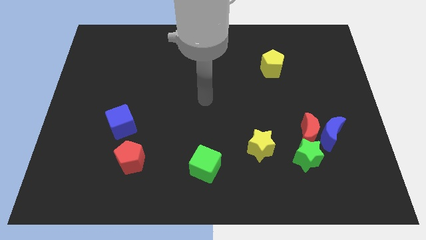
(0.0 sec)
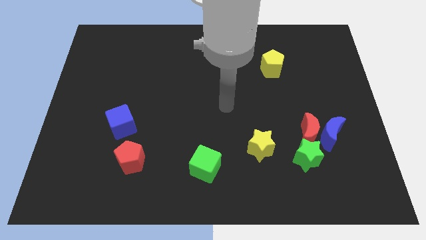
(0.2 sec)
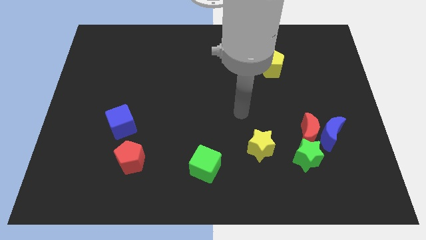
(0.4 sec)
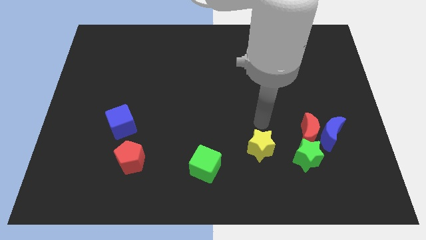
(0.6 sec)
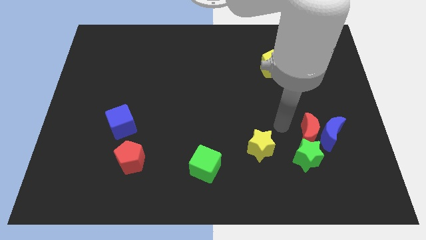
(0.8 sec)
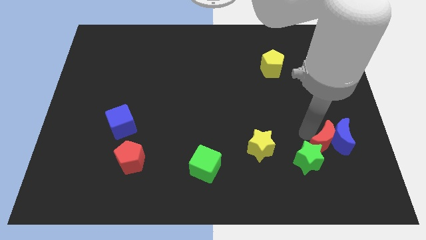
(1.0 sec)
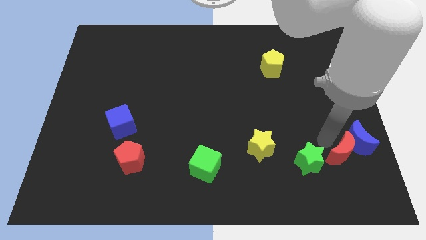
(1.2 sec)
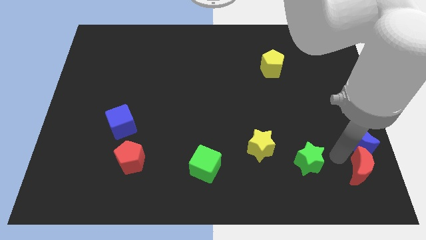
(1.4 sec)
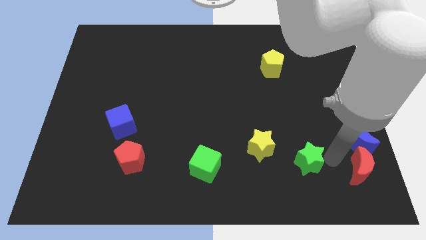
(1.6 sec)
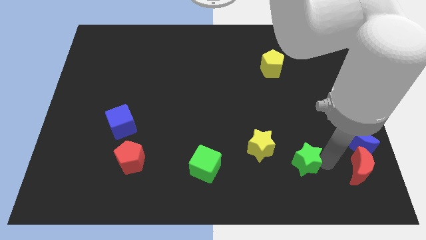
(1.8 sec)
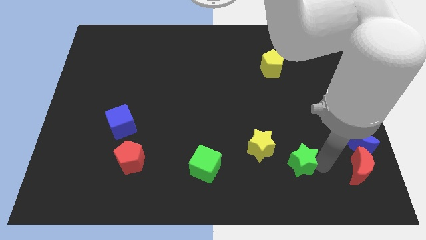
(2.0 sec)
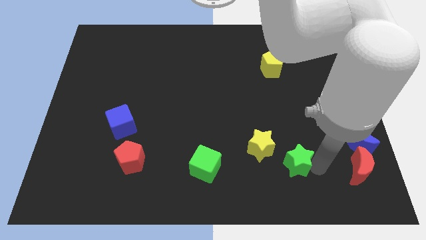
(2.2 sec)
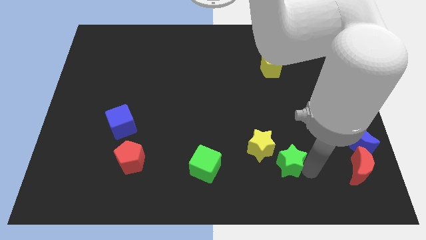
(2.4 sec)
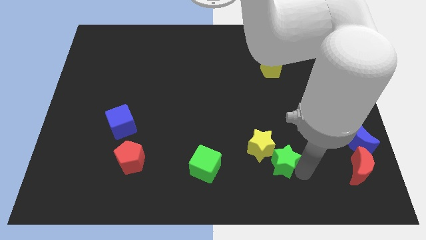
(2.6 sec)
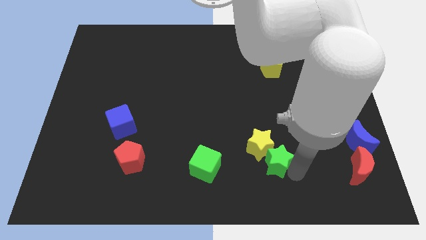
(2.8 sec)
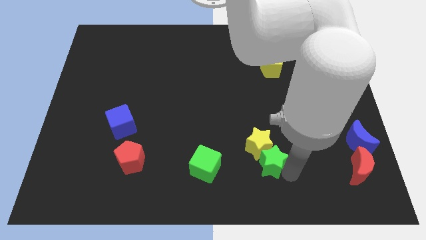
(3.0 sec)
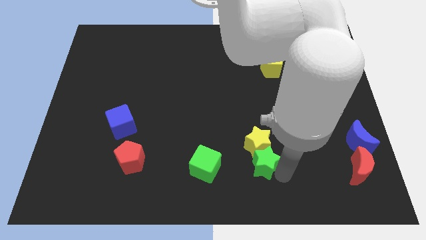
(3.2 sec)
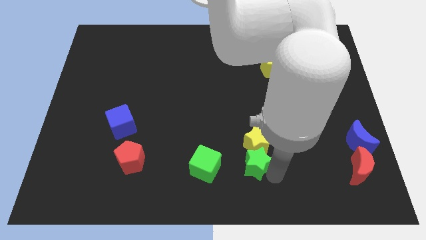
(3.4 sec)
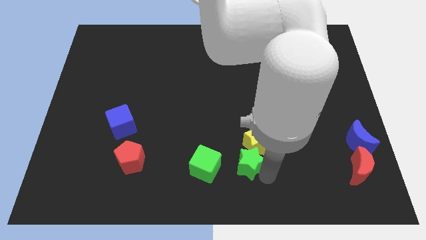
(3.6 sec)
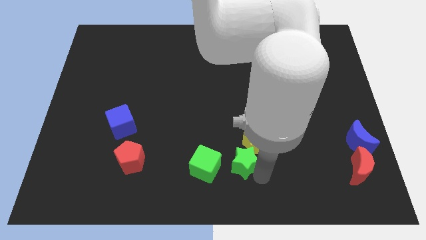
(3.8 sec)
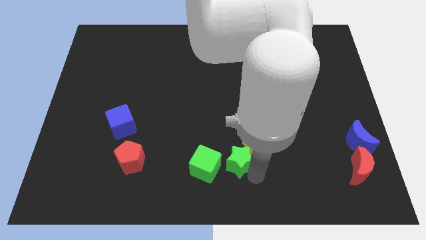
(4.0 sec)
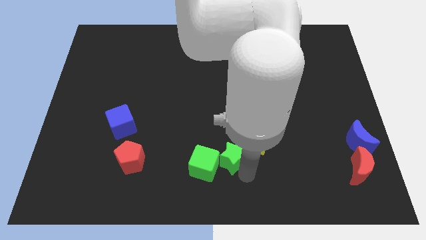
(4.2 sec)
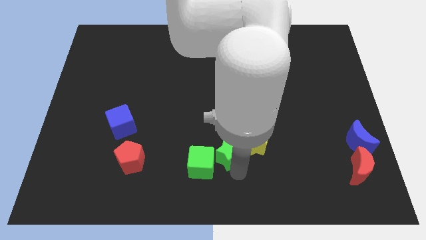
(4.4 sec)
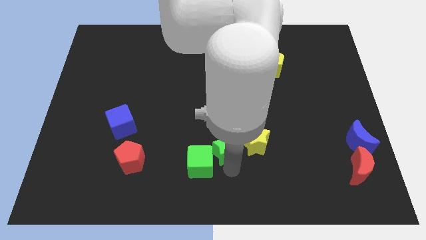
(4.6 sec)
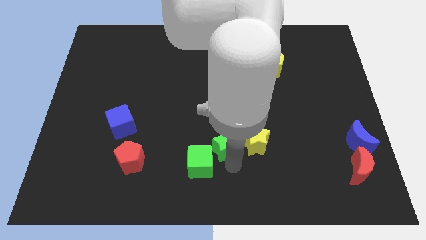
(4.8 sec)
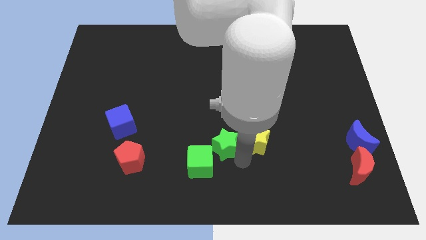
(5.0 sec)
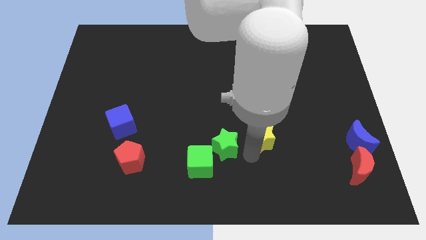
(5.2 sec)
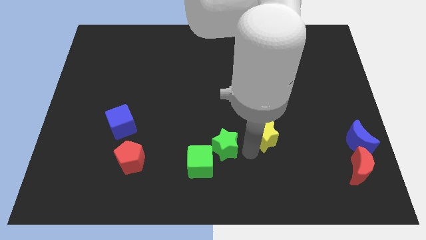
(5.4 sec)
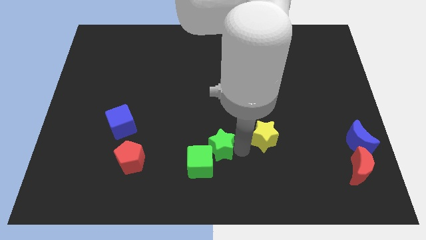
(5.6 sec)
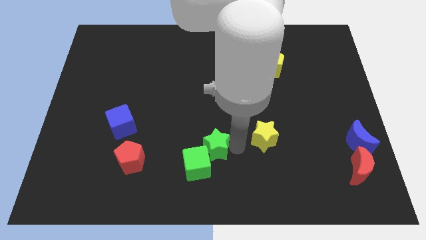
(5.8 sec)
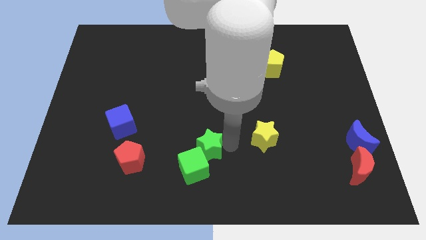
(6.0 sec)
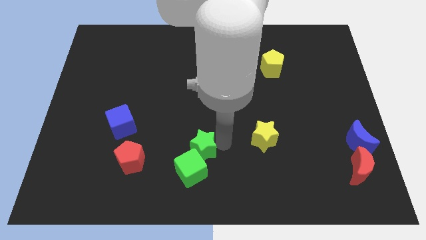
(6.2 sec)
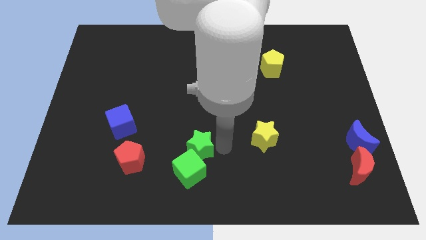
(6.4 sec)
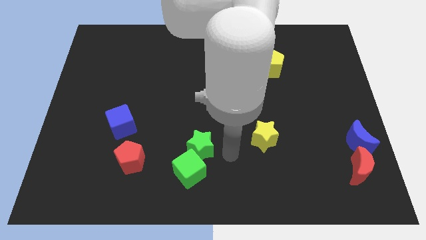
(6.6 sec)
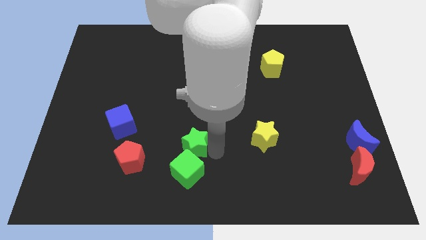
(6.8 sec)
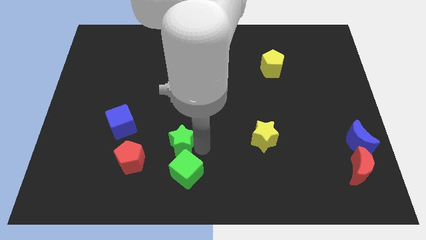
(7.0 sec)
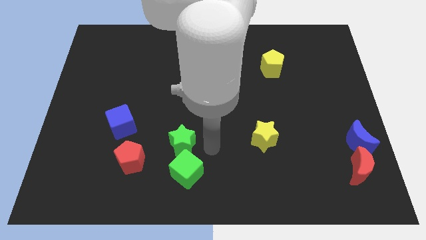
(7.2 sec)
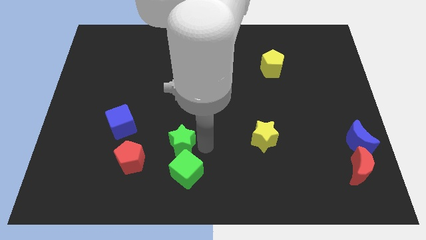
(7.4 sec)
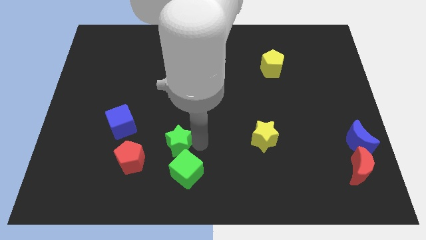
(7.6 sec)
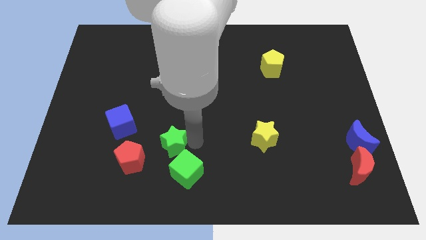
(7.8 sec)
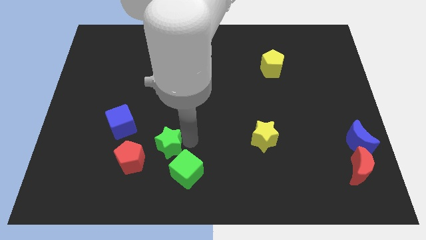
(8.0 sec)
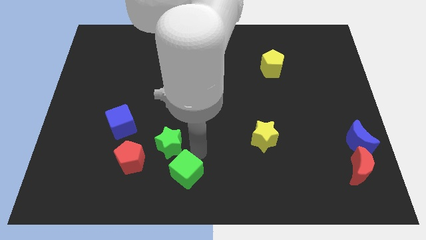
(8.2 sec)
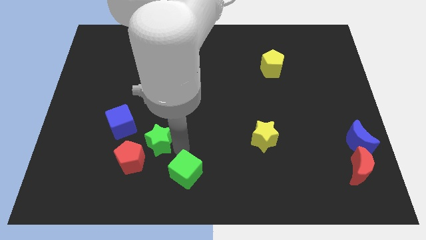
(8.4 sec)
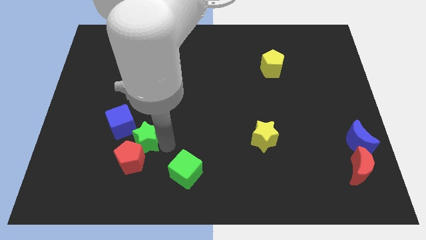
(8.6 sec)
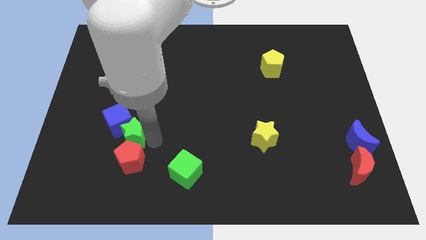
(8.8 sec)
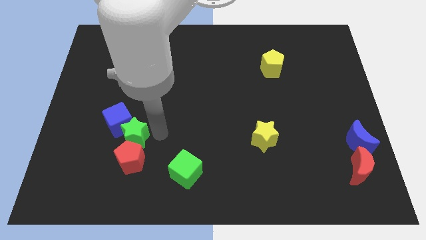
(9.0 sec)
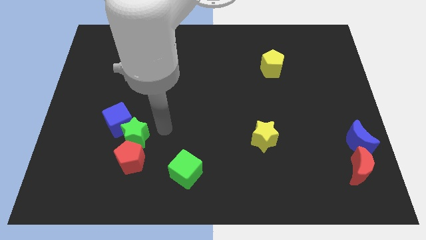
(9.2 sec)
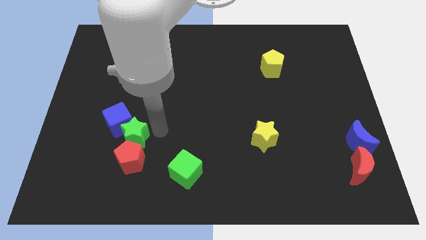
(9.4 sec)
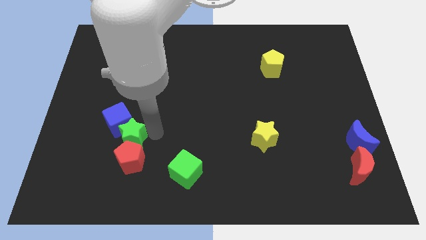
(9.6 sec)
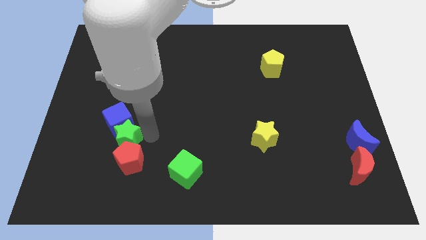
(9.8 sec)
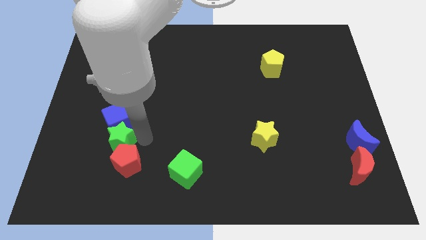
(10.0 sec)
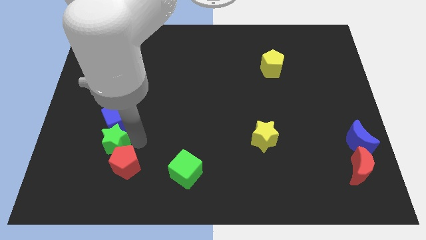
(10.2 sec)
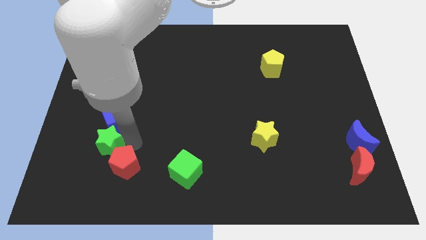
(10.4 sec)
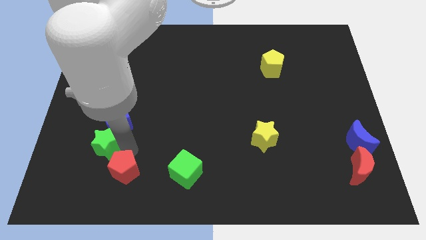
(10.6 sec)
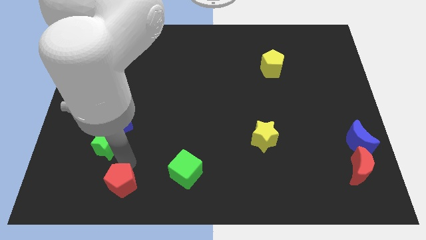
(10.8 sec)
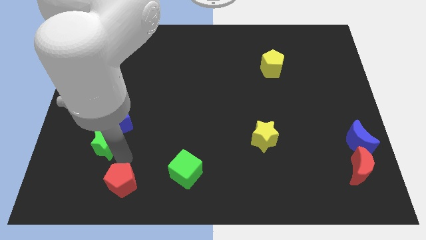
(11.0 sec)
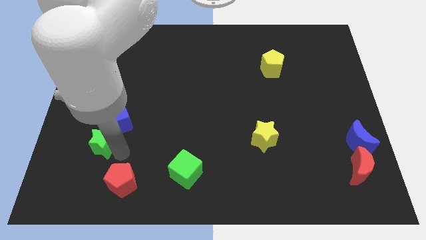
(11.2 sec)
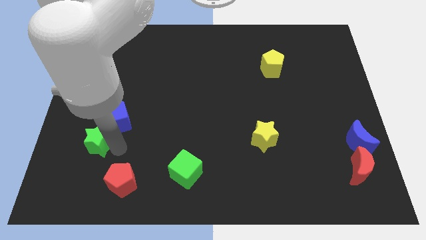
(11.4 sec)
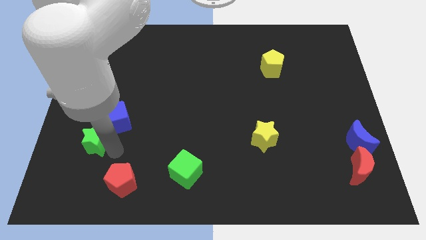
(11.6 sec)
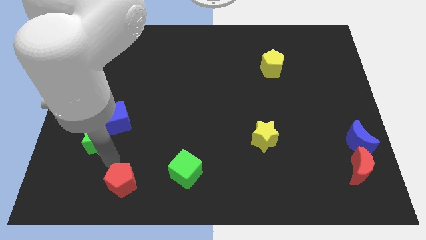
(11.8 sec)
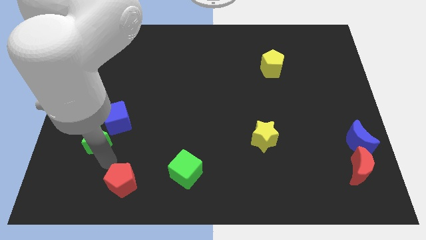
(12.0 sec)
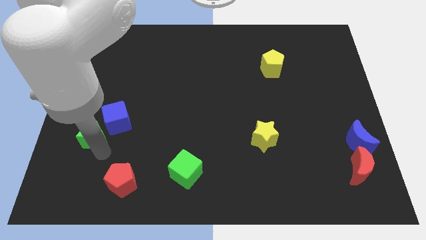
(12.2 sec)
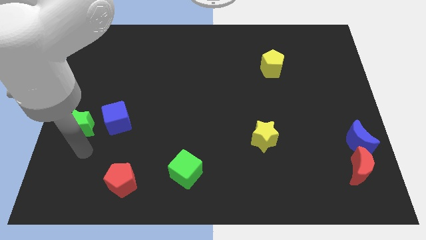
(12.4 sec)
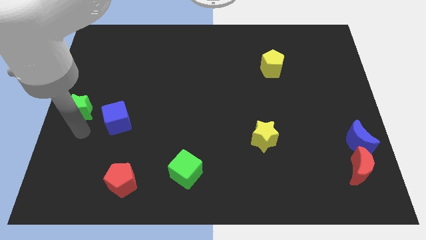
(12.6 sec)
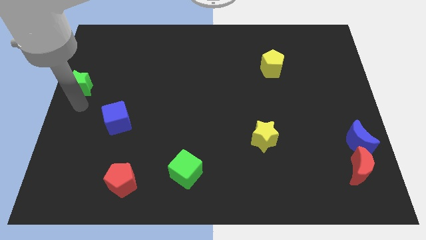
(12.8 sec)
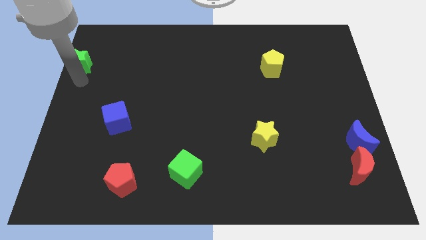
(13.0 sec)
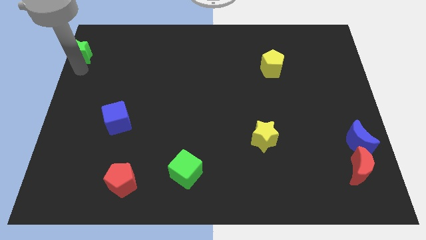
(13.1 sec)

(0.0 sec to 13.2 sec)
put the green star to the upper left corner
